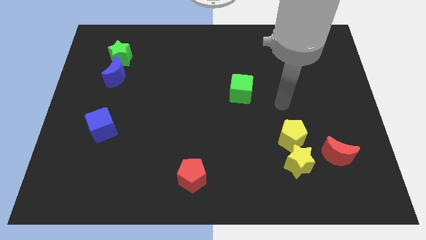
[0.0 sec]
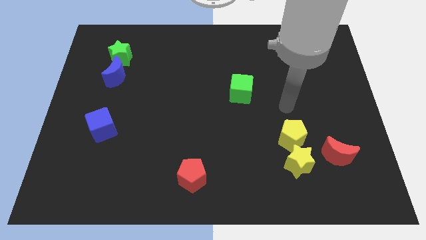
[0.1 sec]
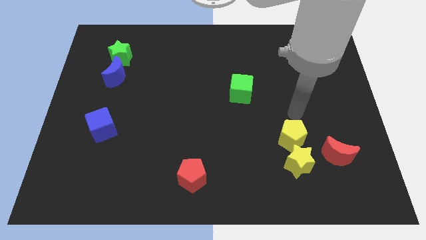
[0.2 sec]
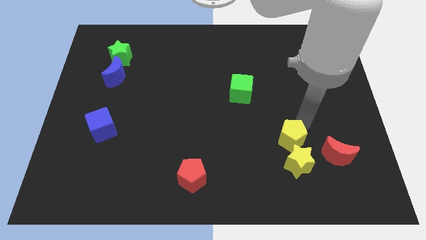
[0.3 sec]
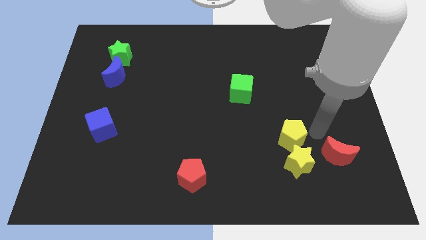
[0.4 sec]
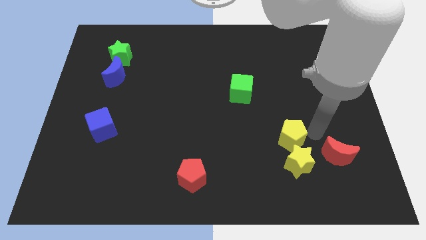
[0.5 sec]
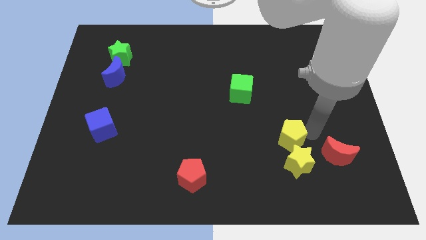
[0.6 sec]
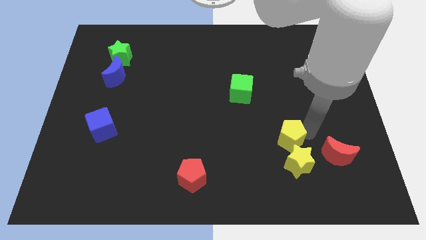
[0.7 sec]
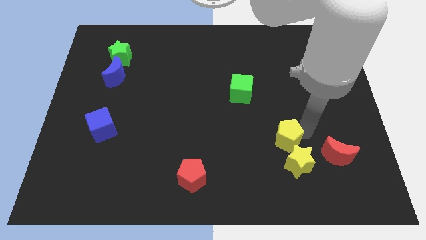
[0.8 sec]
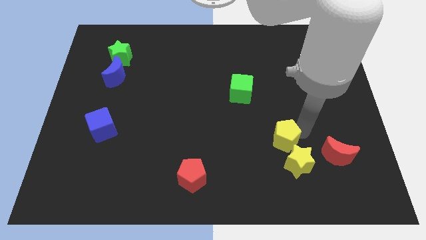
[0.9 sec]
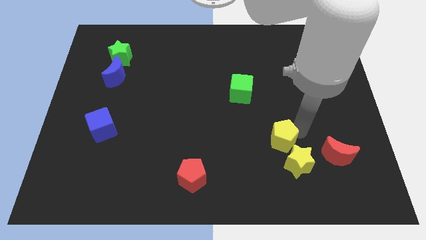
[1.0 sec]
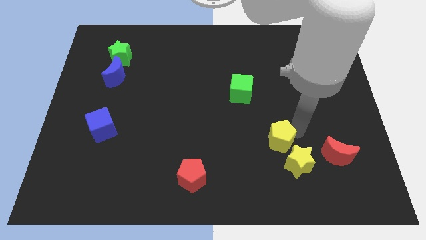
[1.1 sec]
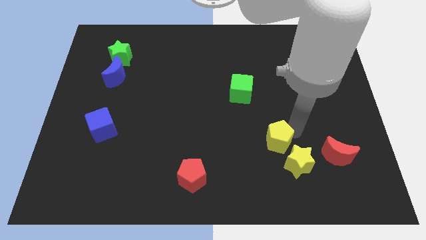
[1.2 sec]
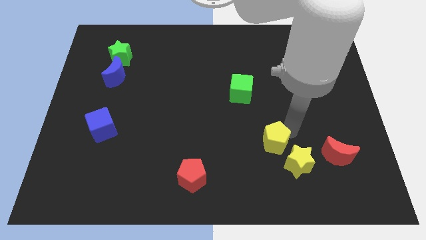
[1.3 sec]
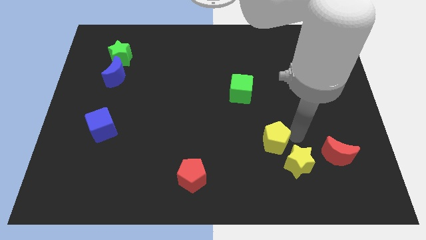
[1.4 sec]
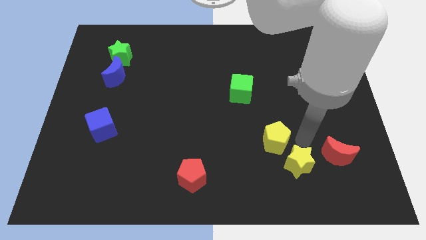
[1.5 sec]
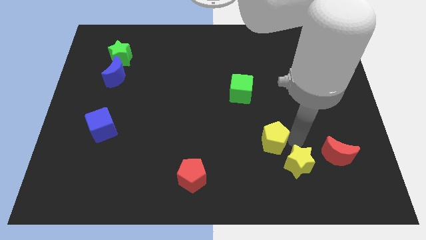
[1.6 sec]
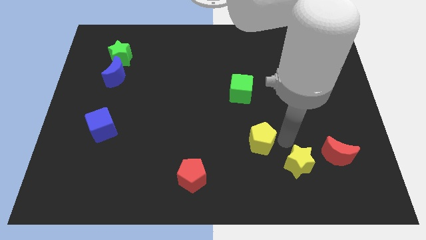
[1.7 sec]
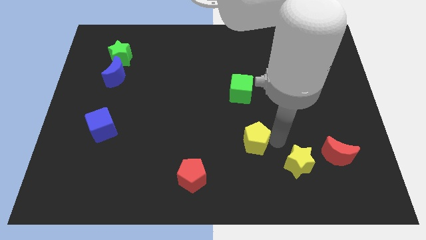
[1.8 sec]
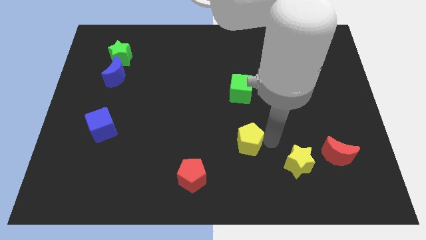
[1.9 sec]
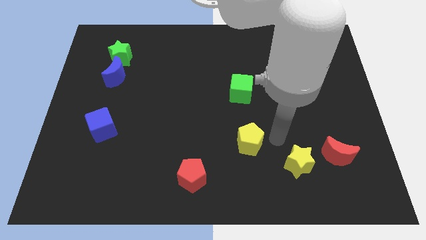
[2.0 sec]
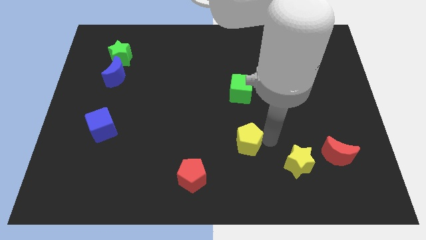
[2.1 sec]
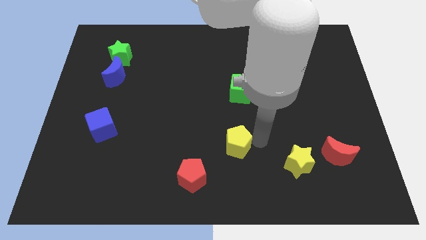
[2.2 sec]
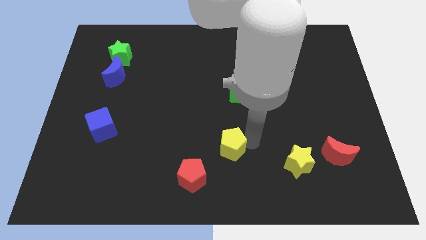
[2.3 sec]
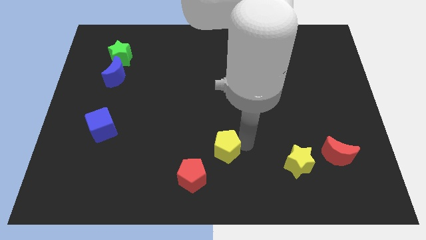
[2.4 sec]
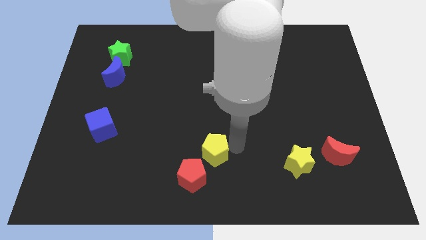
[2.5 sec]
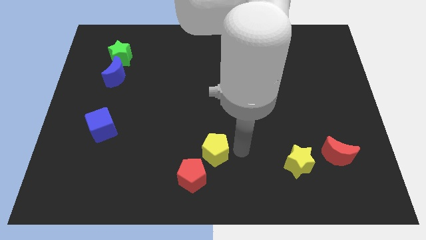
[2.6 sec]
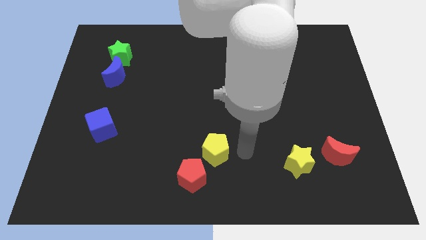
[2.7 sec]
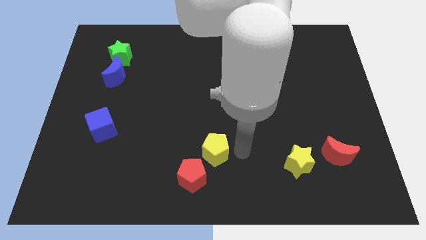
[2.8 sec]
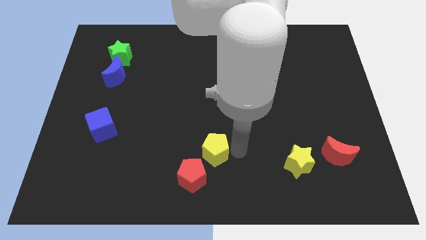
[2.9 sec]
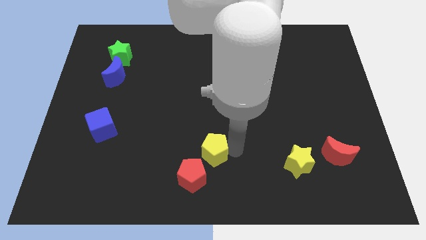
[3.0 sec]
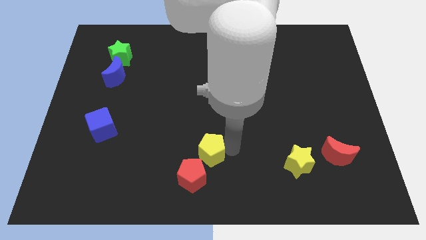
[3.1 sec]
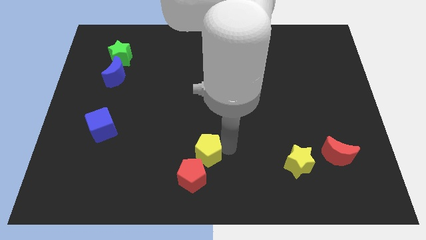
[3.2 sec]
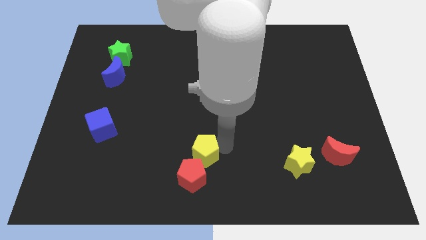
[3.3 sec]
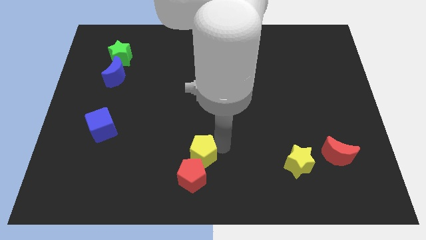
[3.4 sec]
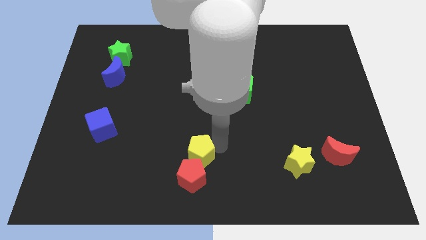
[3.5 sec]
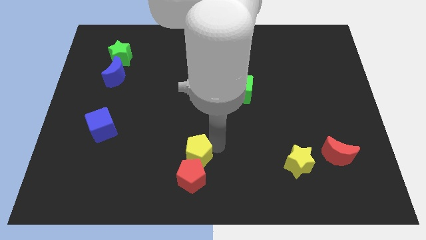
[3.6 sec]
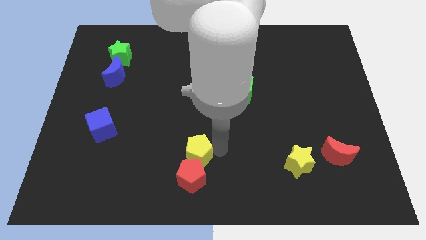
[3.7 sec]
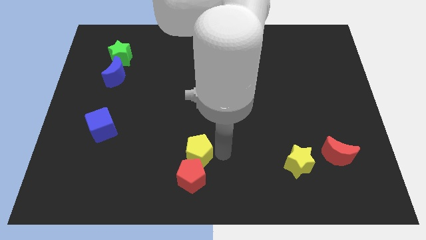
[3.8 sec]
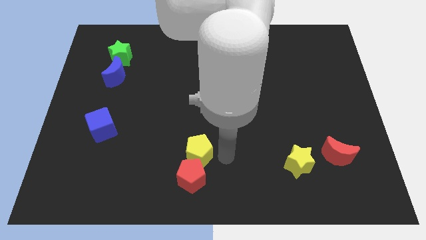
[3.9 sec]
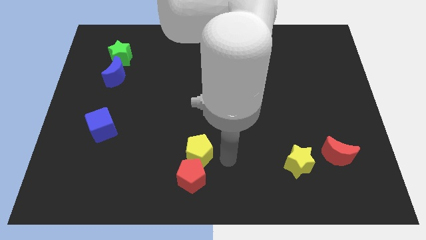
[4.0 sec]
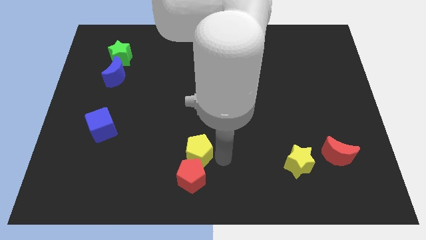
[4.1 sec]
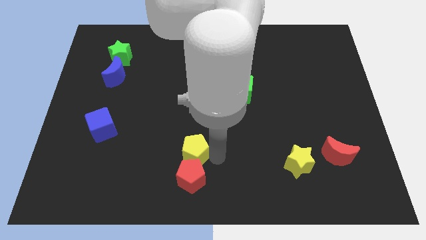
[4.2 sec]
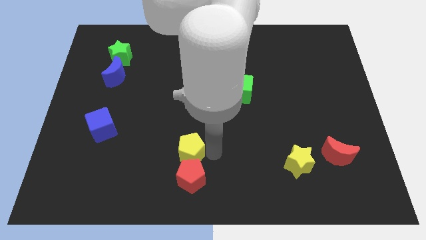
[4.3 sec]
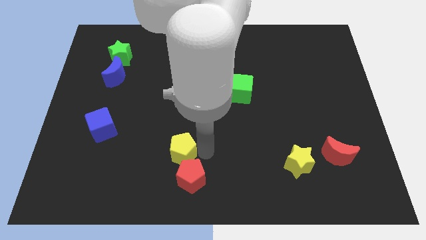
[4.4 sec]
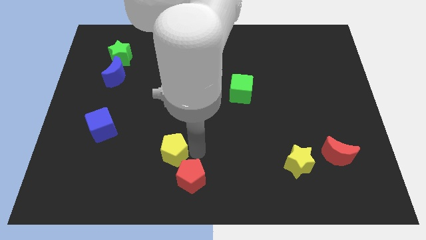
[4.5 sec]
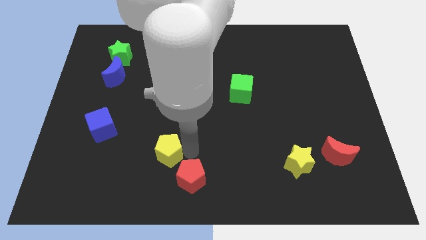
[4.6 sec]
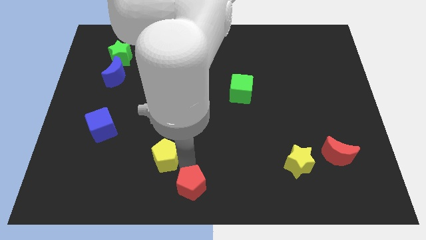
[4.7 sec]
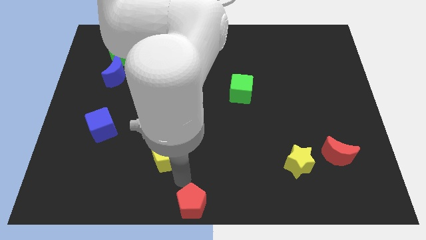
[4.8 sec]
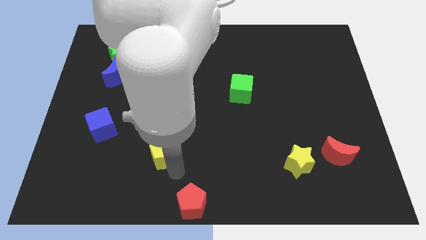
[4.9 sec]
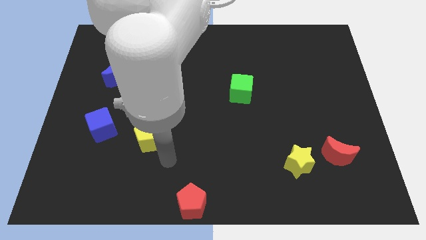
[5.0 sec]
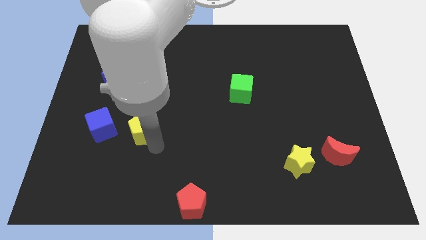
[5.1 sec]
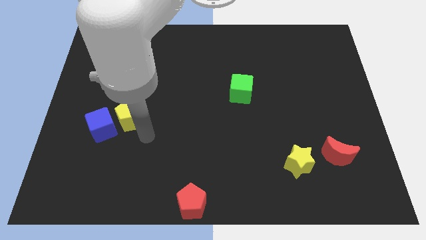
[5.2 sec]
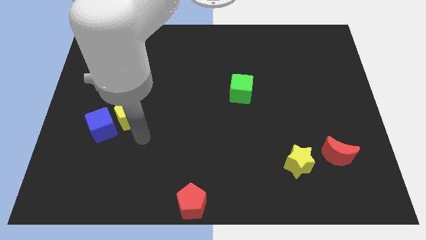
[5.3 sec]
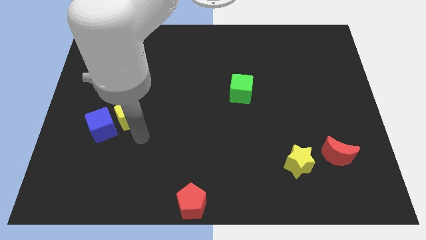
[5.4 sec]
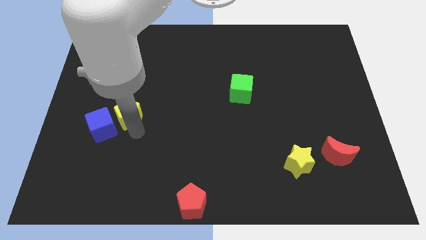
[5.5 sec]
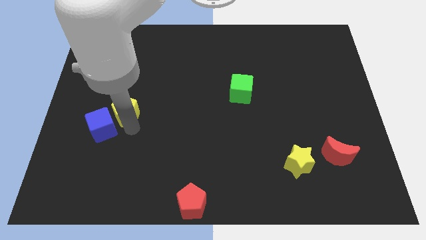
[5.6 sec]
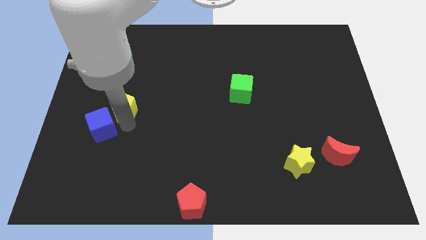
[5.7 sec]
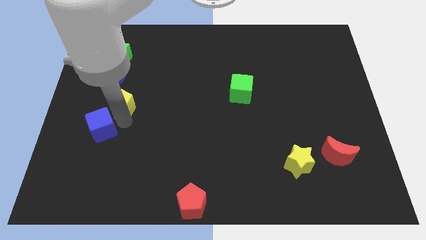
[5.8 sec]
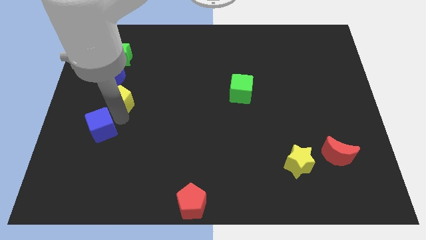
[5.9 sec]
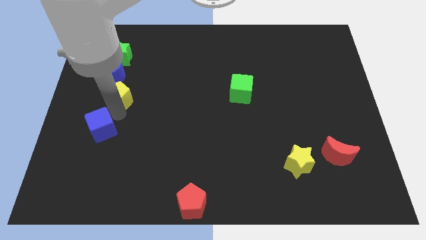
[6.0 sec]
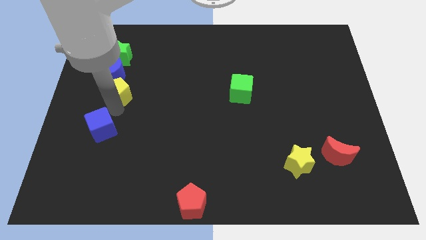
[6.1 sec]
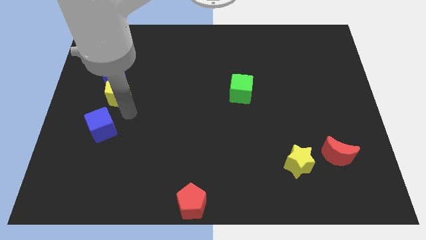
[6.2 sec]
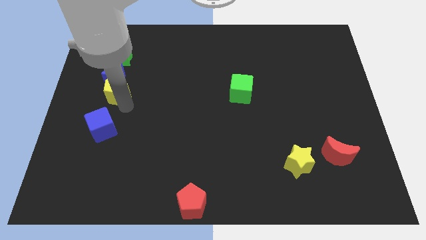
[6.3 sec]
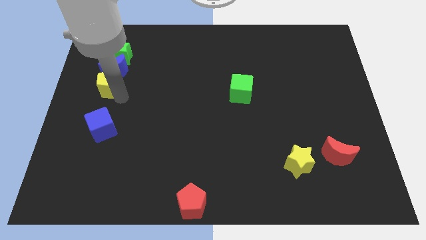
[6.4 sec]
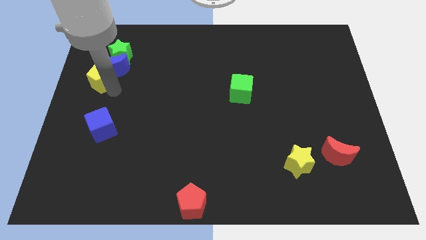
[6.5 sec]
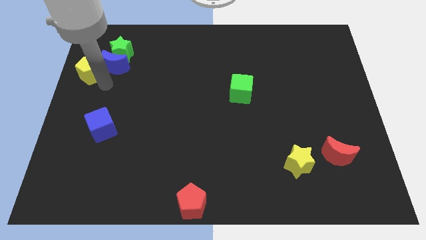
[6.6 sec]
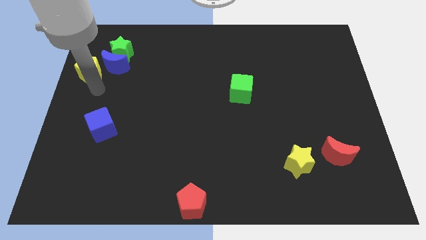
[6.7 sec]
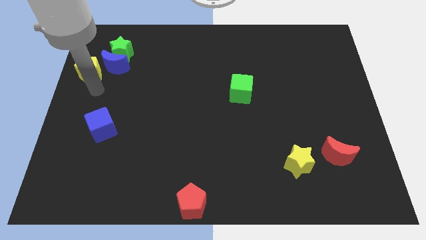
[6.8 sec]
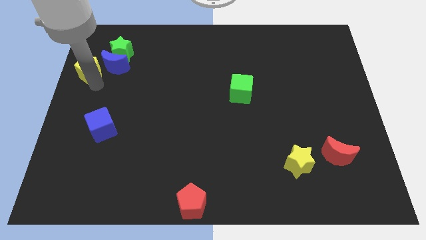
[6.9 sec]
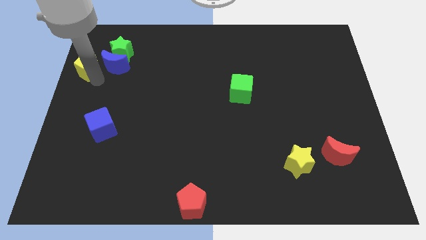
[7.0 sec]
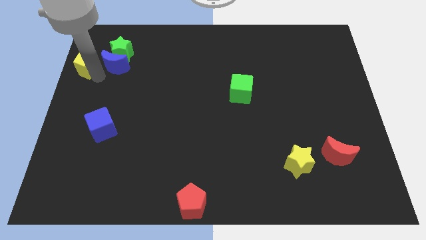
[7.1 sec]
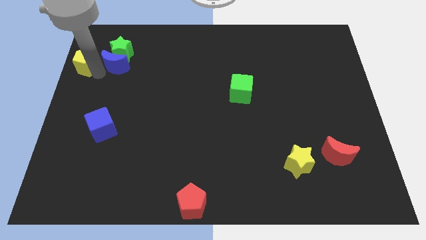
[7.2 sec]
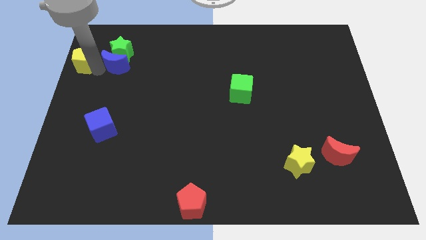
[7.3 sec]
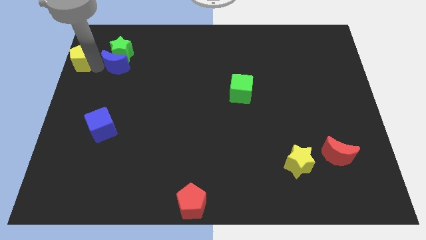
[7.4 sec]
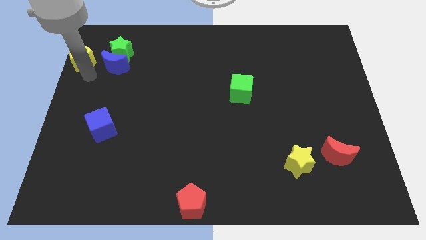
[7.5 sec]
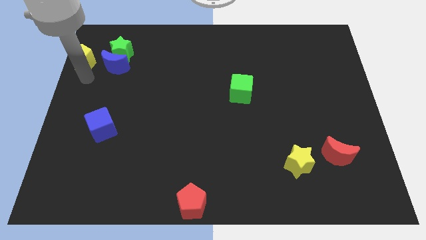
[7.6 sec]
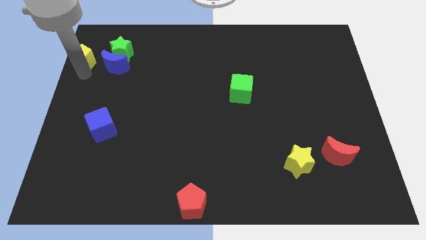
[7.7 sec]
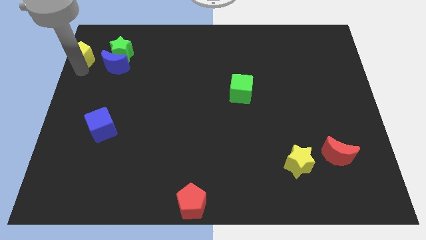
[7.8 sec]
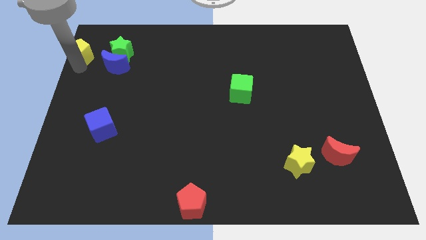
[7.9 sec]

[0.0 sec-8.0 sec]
put the yellow pentagon to the top left of the board
